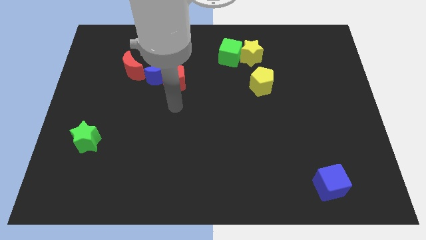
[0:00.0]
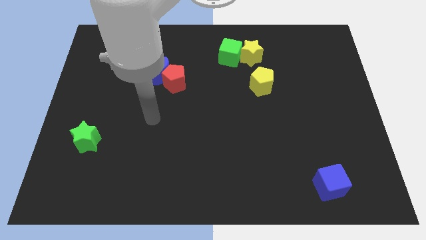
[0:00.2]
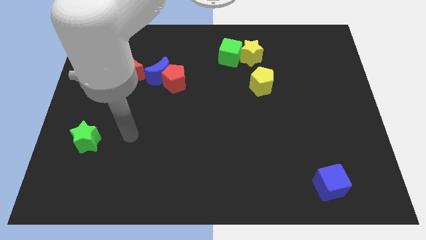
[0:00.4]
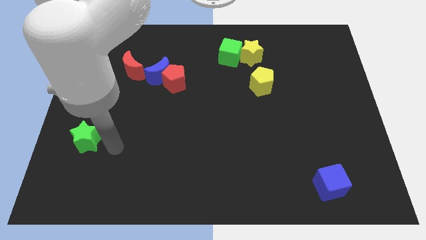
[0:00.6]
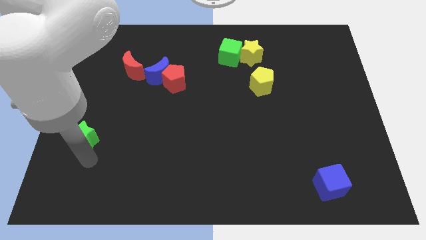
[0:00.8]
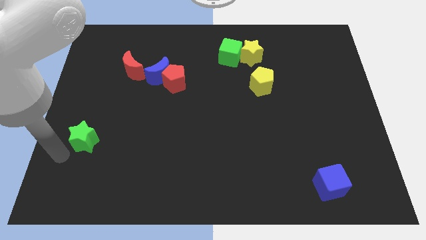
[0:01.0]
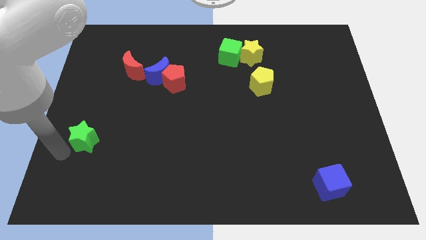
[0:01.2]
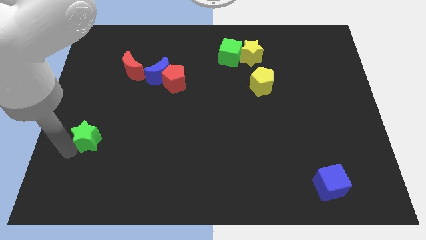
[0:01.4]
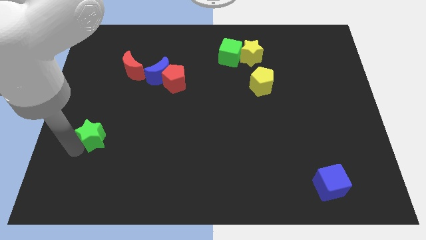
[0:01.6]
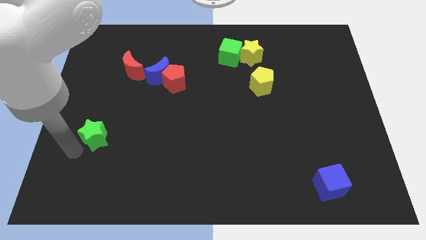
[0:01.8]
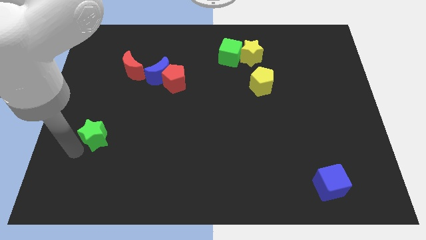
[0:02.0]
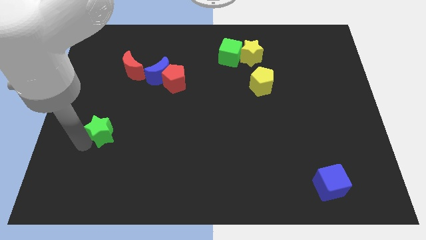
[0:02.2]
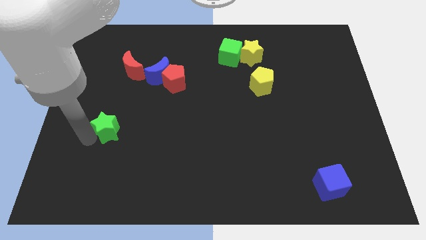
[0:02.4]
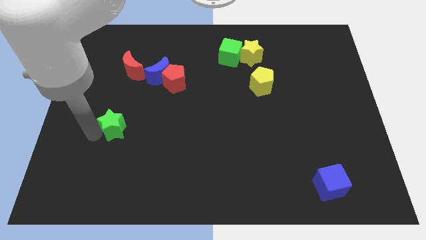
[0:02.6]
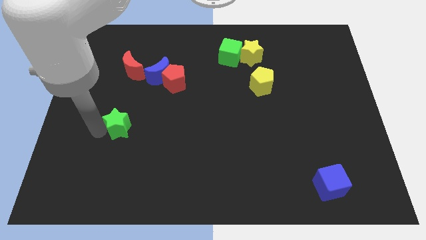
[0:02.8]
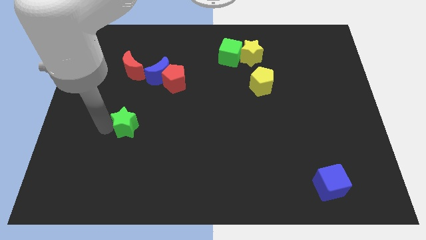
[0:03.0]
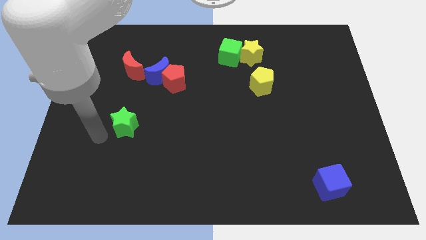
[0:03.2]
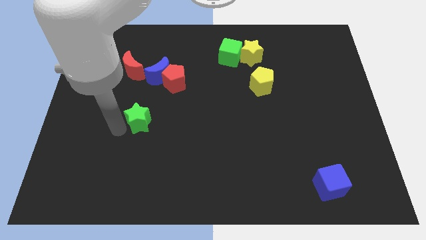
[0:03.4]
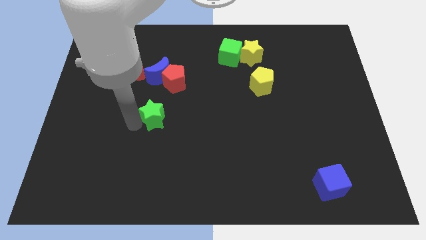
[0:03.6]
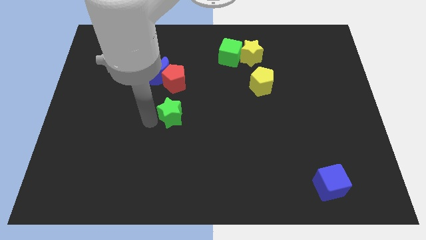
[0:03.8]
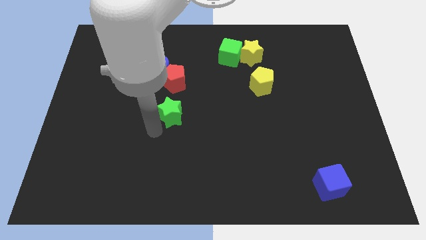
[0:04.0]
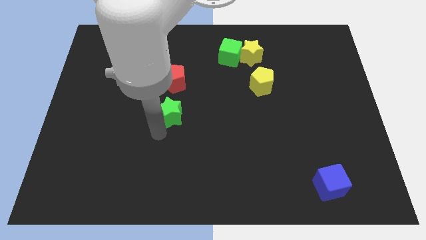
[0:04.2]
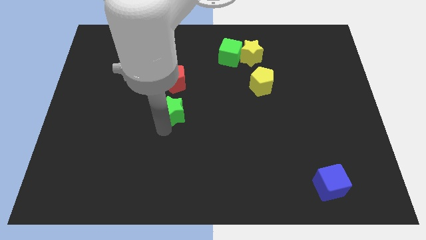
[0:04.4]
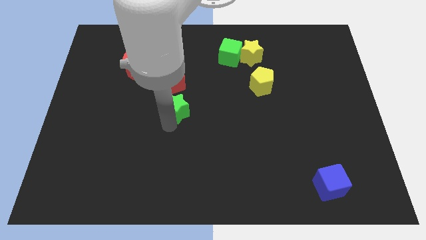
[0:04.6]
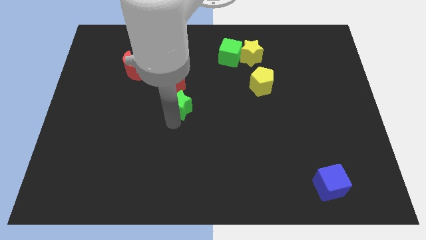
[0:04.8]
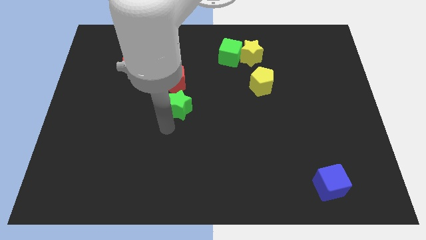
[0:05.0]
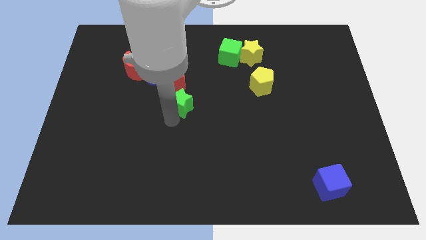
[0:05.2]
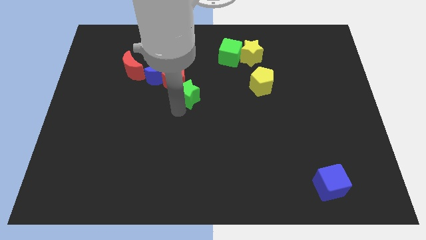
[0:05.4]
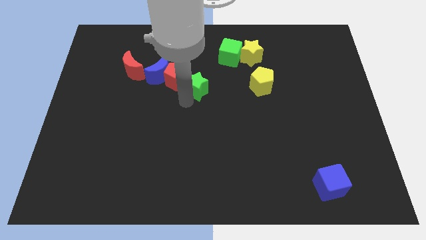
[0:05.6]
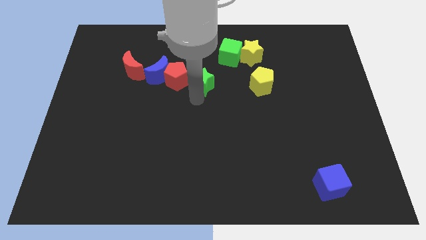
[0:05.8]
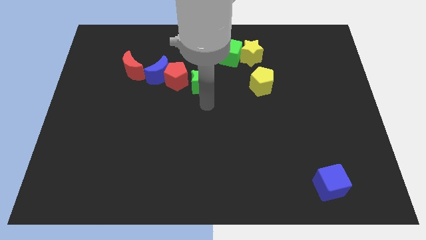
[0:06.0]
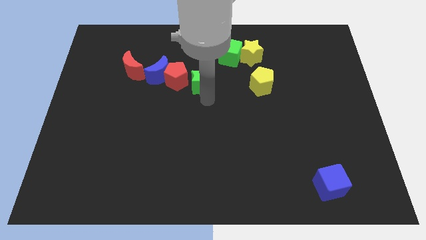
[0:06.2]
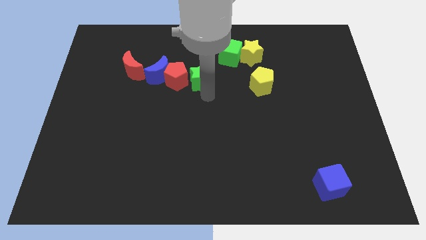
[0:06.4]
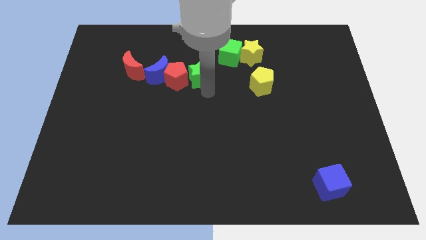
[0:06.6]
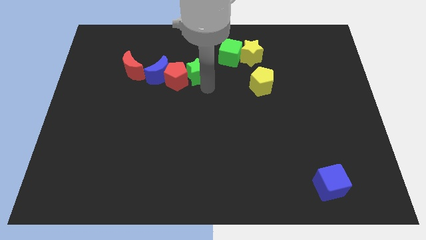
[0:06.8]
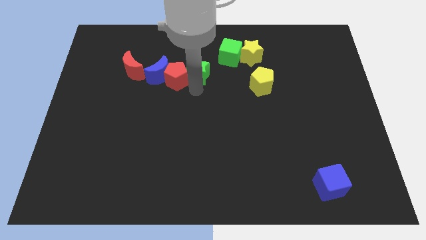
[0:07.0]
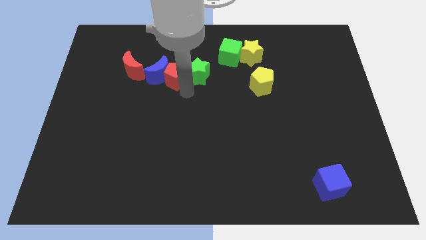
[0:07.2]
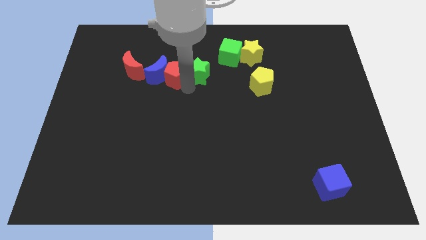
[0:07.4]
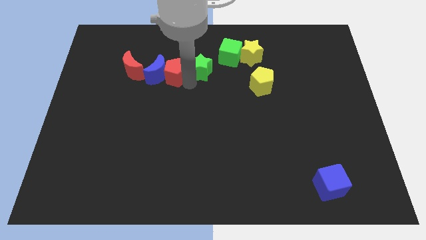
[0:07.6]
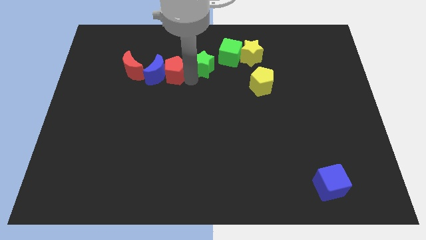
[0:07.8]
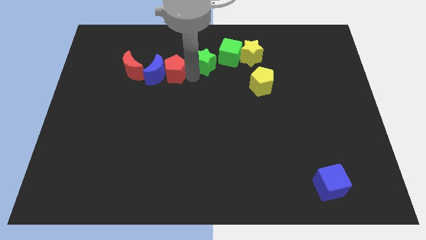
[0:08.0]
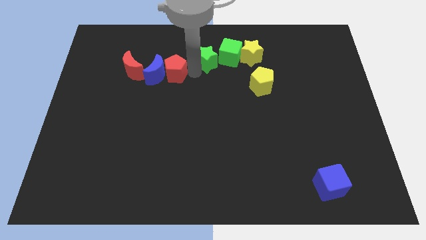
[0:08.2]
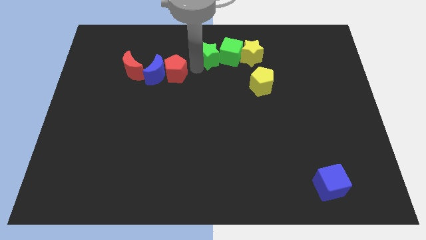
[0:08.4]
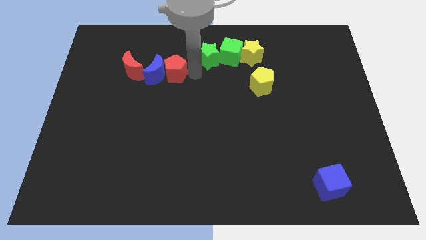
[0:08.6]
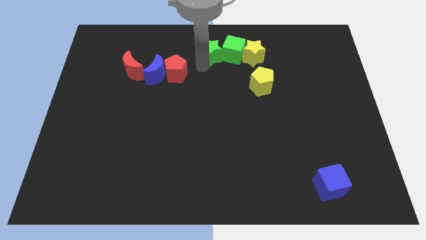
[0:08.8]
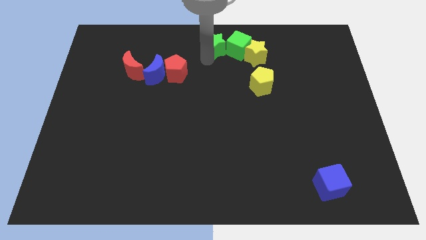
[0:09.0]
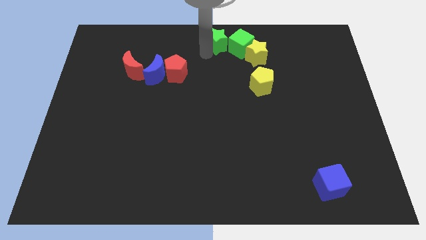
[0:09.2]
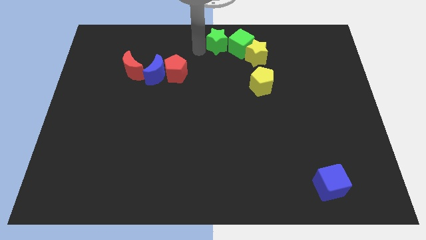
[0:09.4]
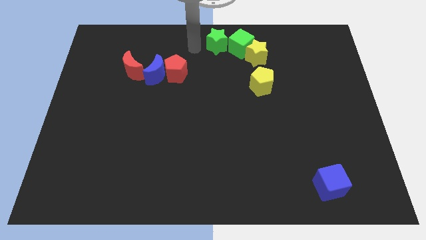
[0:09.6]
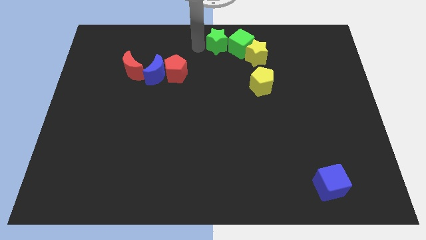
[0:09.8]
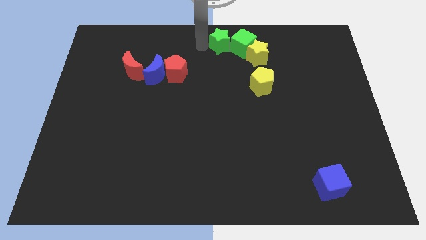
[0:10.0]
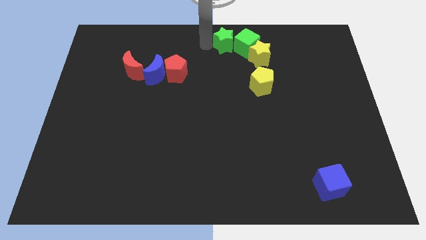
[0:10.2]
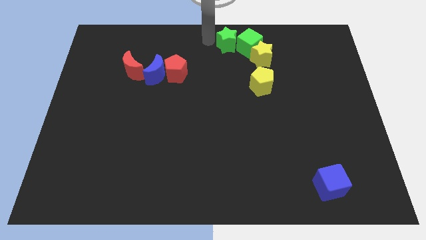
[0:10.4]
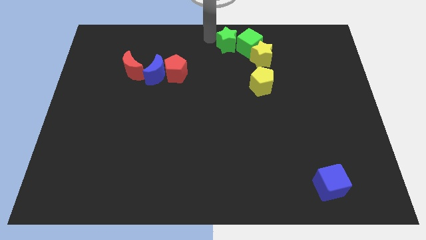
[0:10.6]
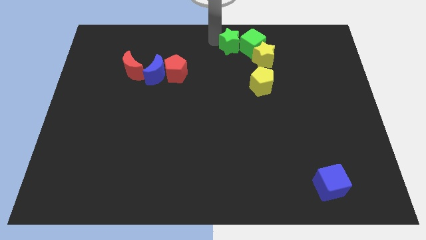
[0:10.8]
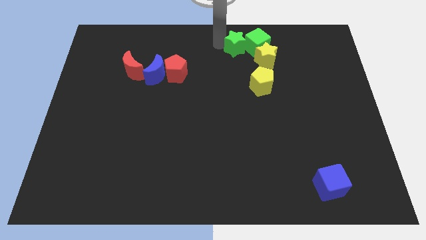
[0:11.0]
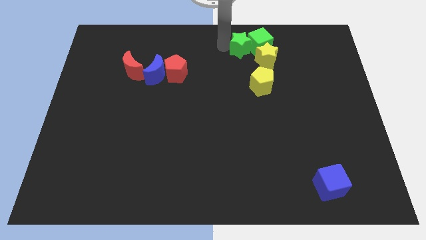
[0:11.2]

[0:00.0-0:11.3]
push the green star above the yellow pentagon

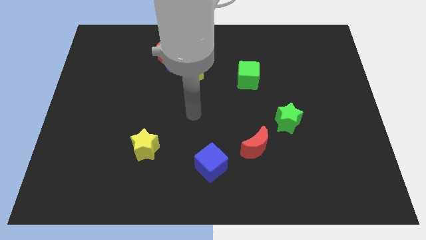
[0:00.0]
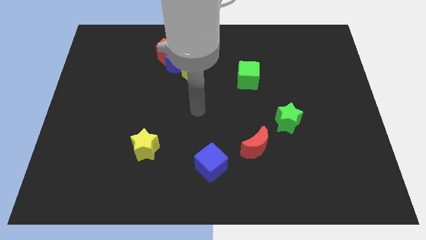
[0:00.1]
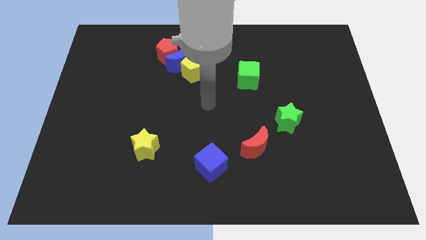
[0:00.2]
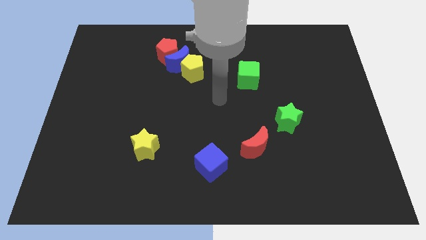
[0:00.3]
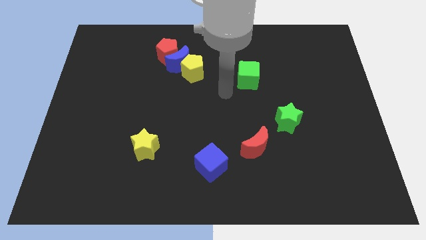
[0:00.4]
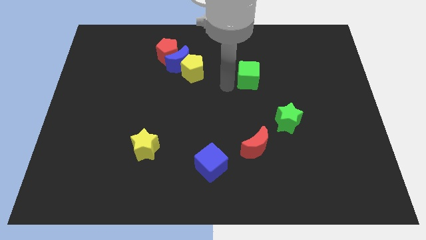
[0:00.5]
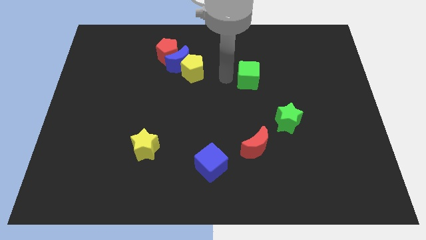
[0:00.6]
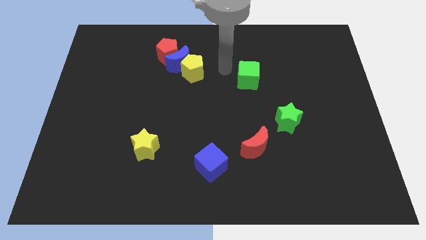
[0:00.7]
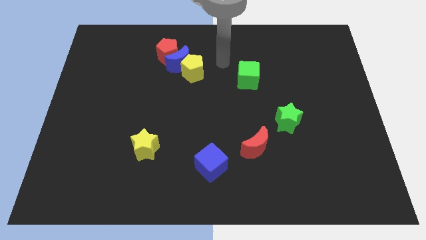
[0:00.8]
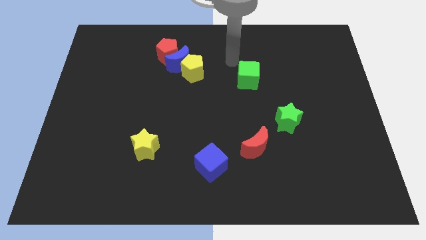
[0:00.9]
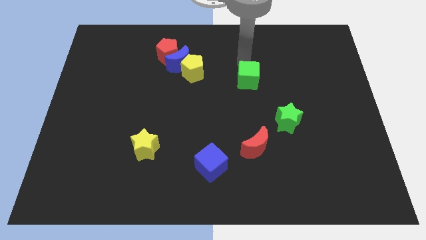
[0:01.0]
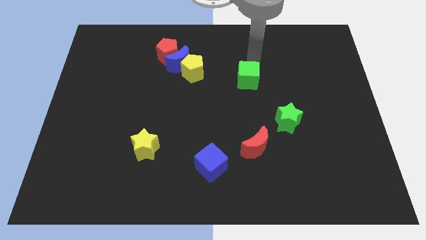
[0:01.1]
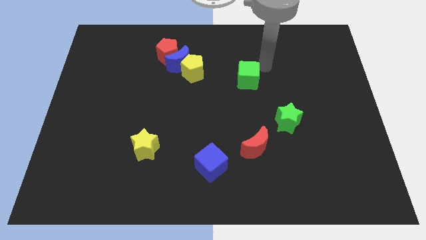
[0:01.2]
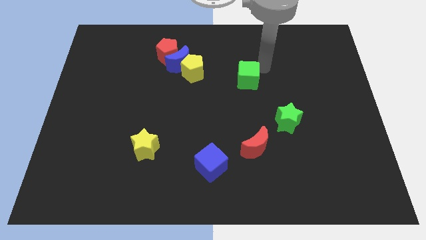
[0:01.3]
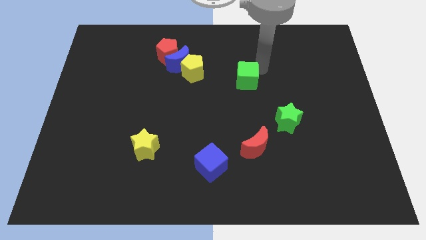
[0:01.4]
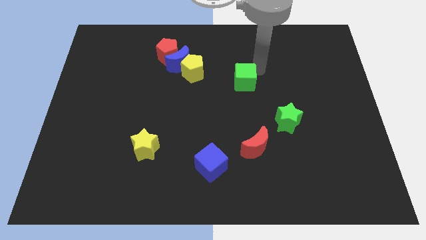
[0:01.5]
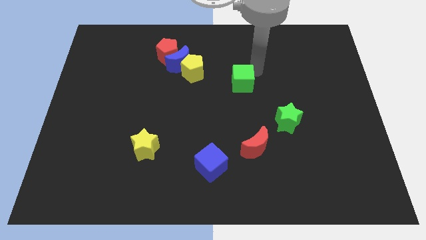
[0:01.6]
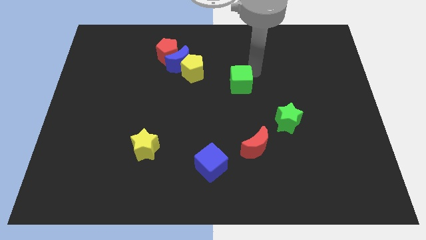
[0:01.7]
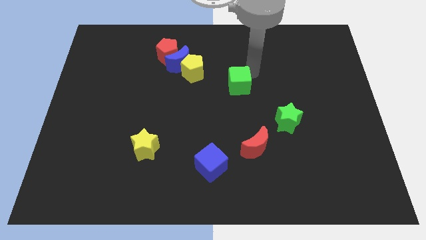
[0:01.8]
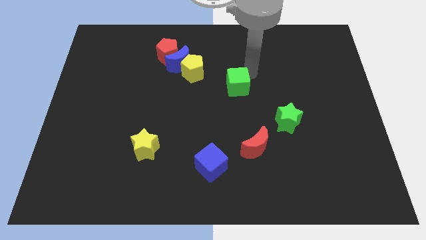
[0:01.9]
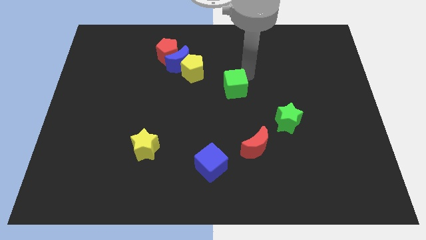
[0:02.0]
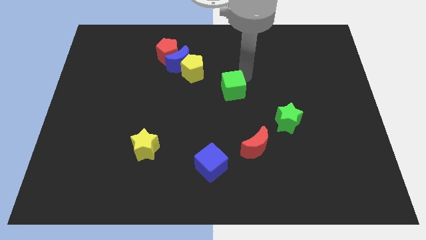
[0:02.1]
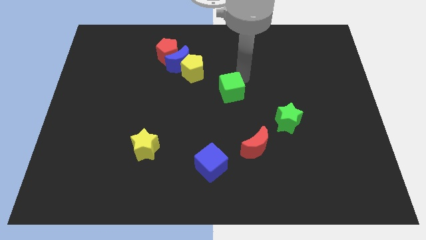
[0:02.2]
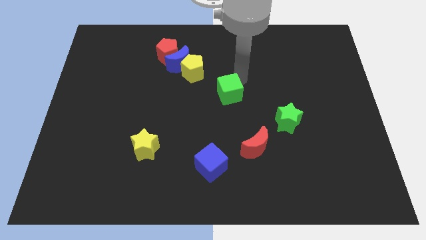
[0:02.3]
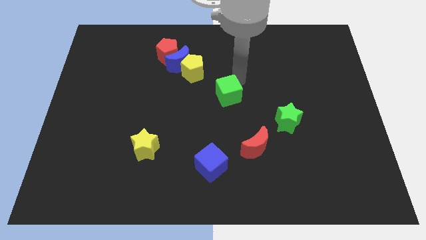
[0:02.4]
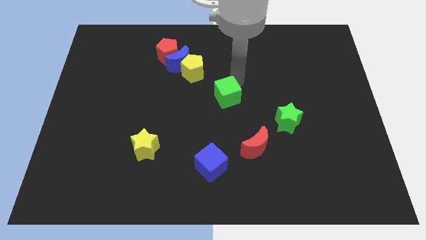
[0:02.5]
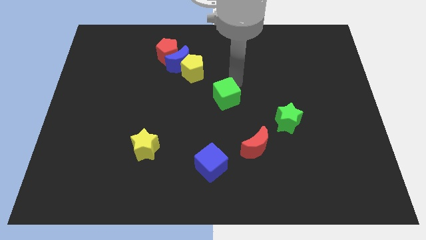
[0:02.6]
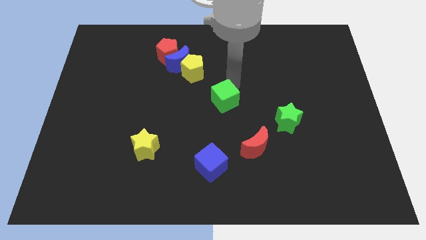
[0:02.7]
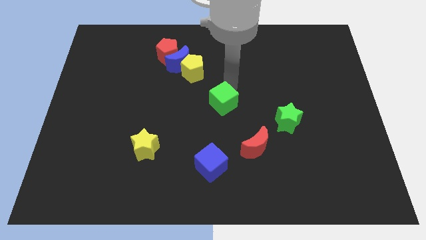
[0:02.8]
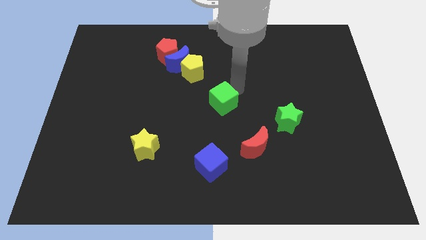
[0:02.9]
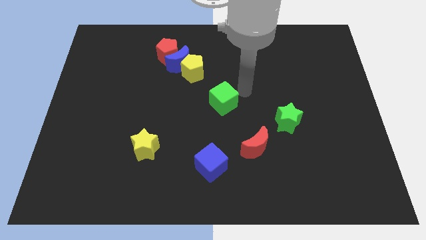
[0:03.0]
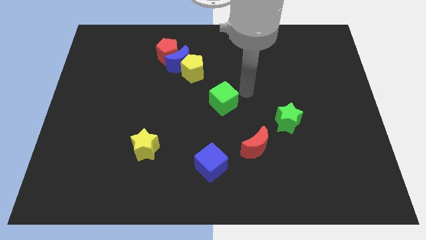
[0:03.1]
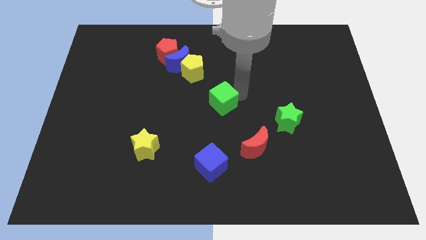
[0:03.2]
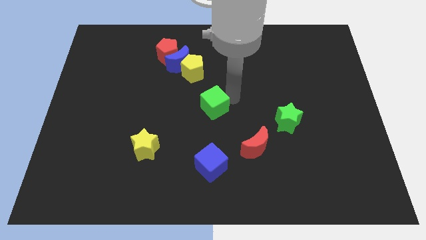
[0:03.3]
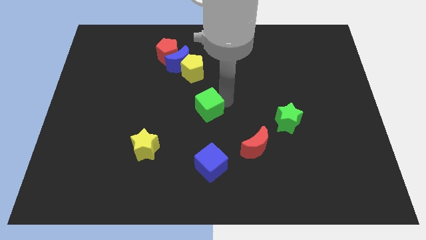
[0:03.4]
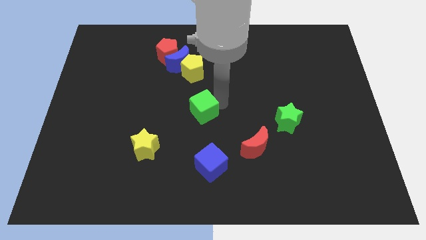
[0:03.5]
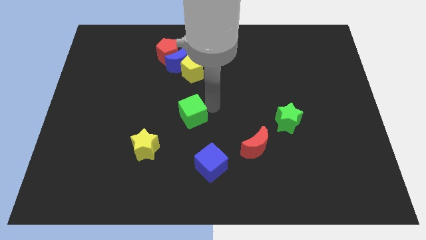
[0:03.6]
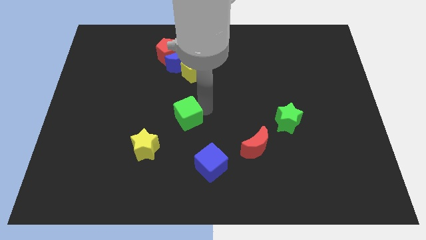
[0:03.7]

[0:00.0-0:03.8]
push the green cube diagonally up and to the right of the yellow star
